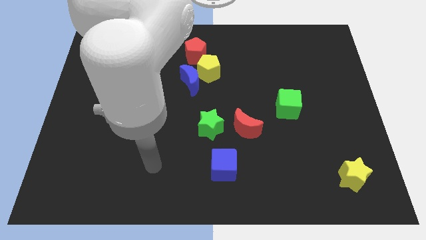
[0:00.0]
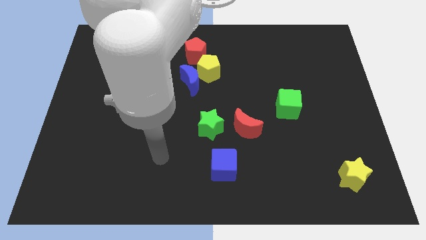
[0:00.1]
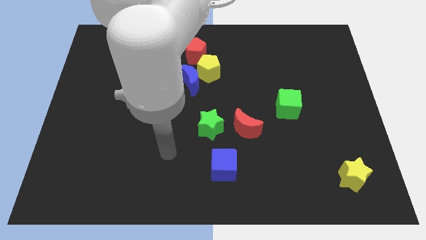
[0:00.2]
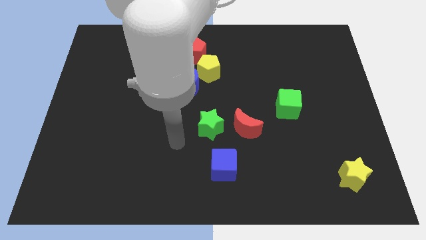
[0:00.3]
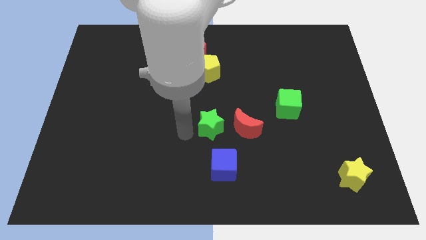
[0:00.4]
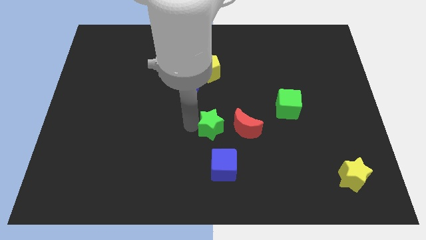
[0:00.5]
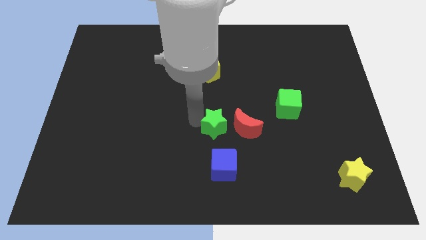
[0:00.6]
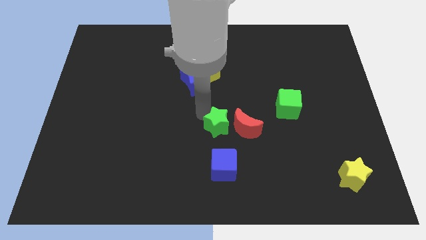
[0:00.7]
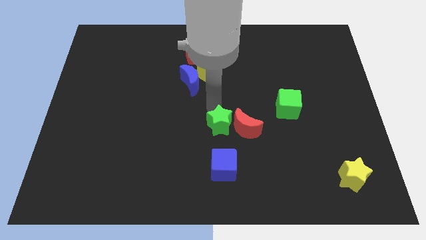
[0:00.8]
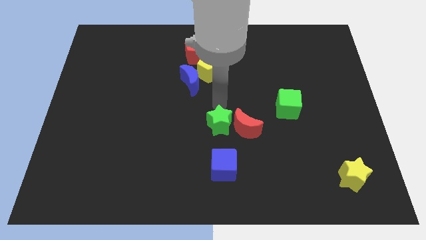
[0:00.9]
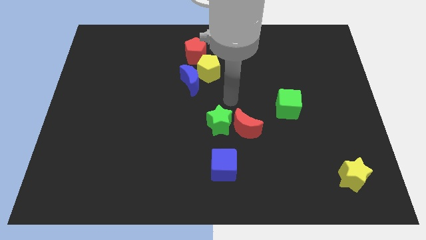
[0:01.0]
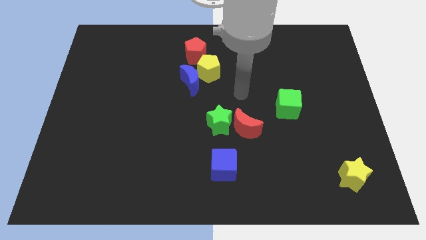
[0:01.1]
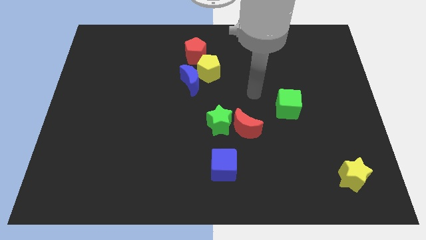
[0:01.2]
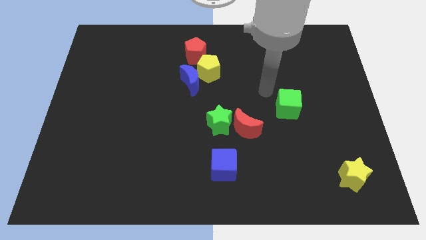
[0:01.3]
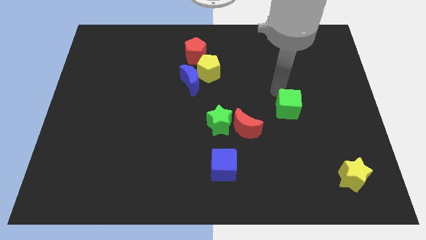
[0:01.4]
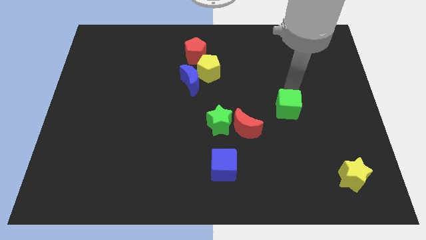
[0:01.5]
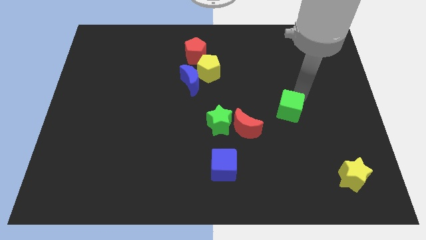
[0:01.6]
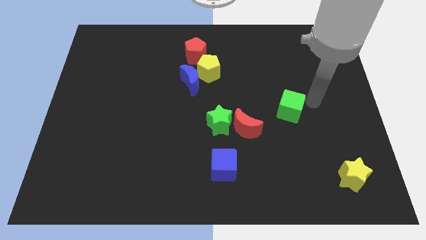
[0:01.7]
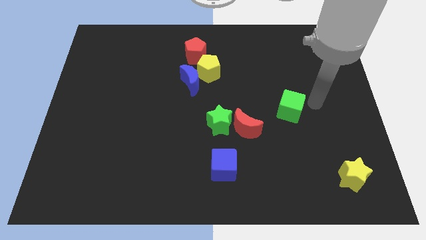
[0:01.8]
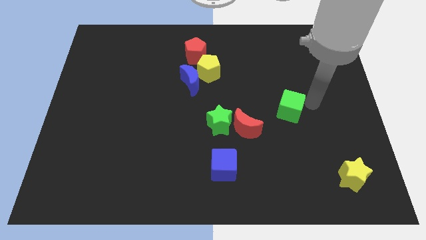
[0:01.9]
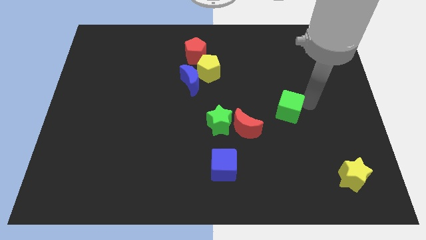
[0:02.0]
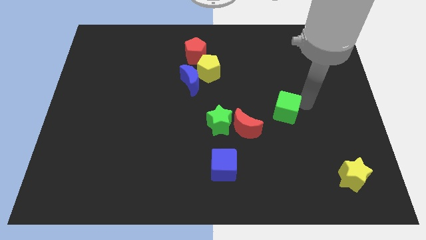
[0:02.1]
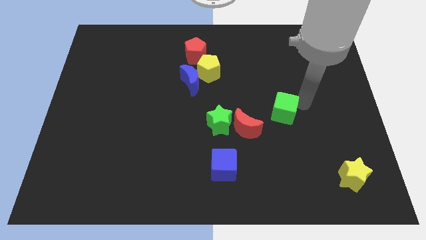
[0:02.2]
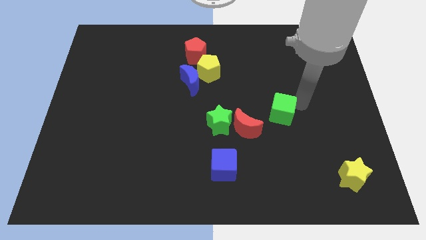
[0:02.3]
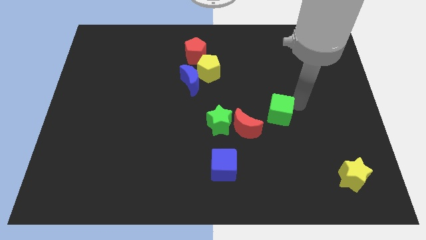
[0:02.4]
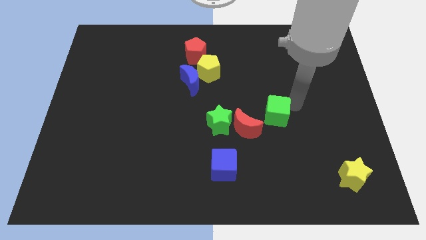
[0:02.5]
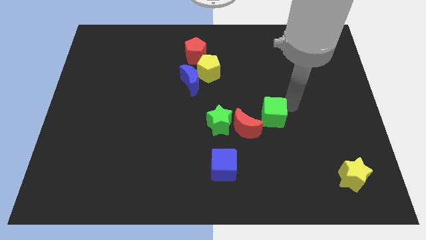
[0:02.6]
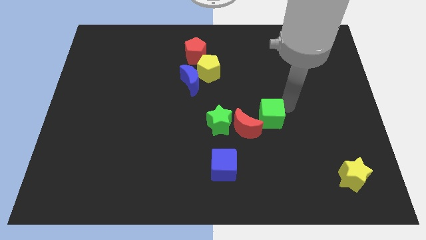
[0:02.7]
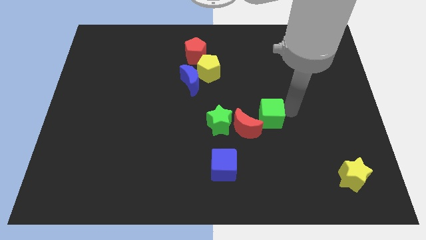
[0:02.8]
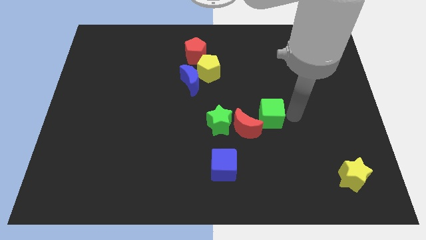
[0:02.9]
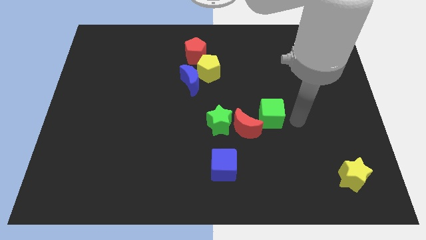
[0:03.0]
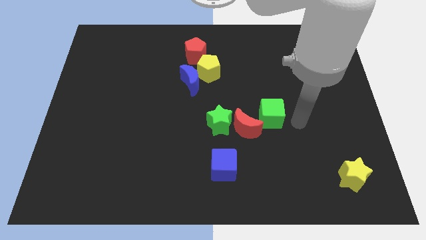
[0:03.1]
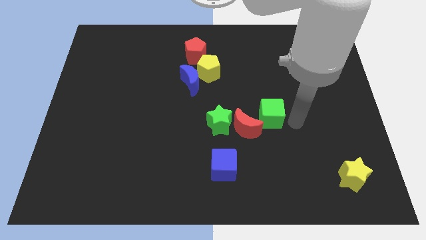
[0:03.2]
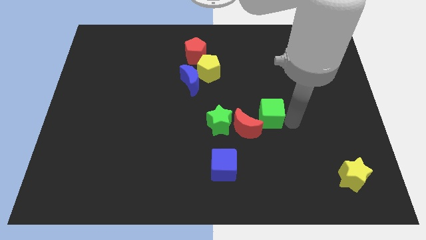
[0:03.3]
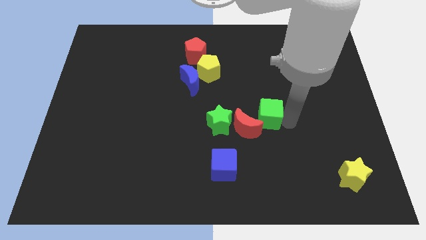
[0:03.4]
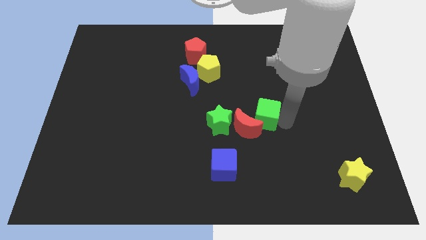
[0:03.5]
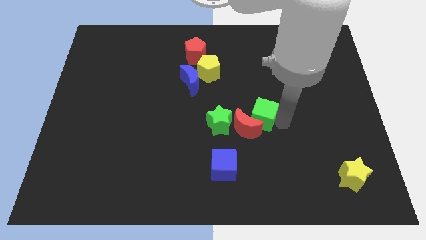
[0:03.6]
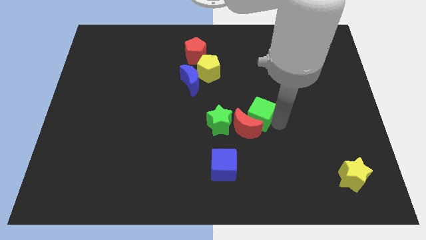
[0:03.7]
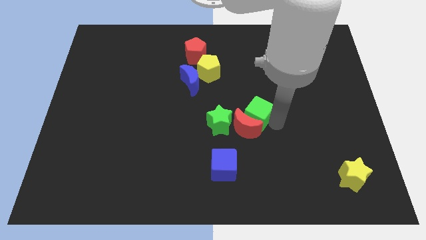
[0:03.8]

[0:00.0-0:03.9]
push the green cube left a bit

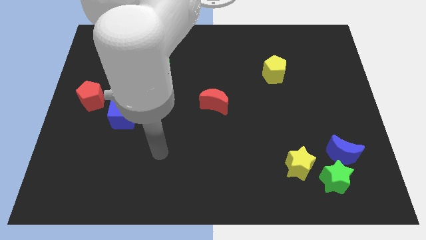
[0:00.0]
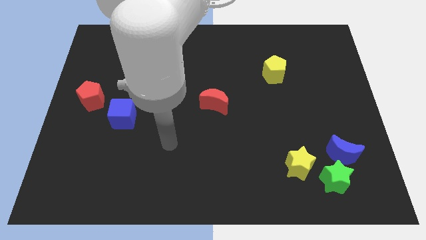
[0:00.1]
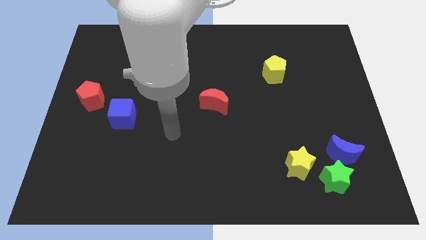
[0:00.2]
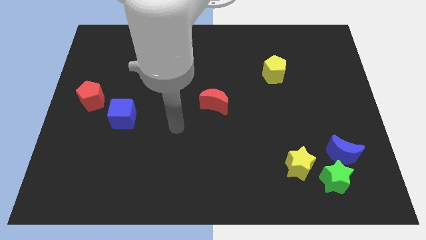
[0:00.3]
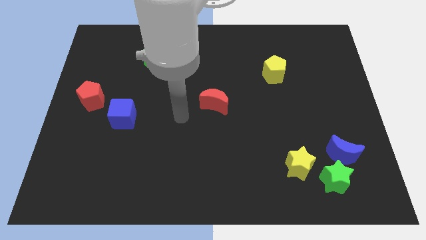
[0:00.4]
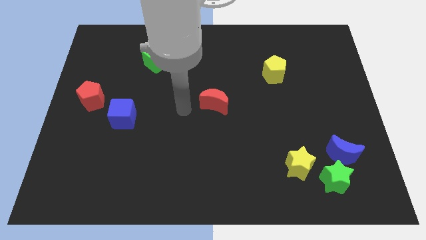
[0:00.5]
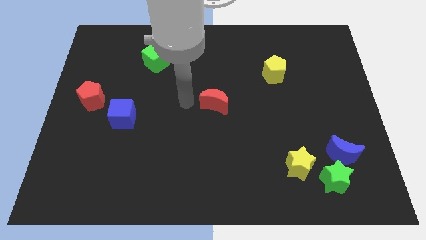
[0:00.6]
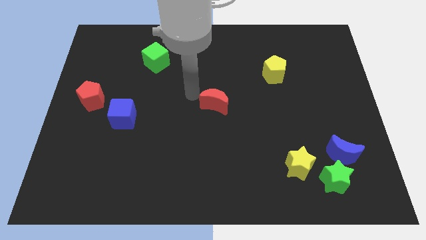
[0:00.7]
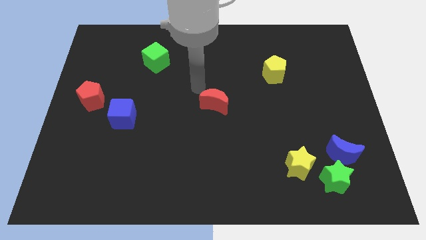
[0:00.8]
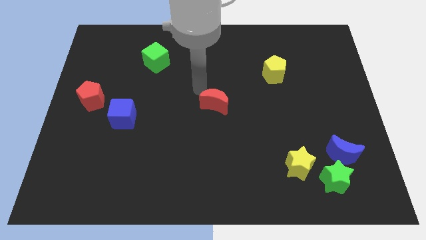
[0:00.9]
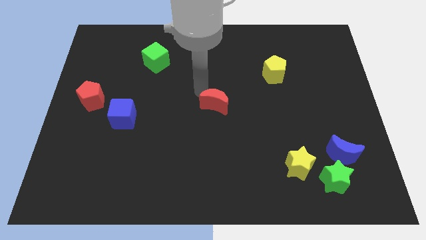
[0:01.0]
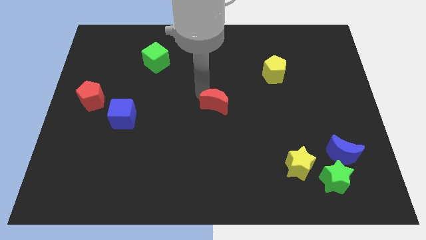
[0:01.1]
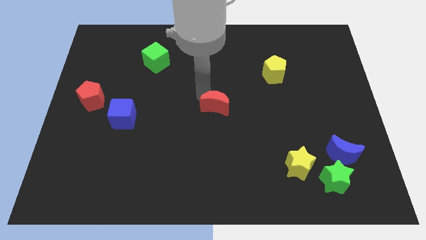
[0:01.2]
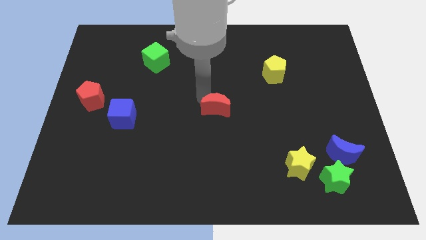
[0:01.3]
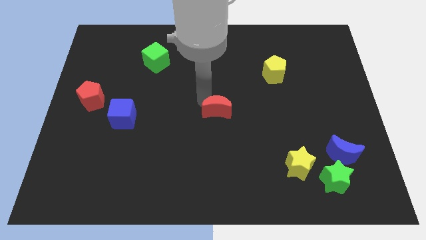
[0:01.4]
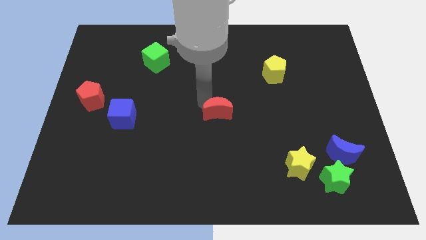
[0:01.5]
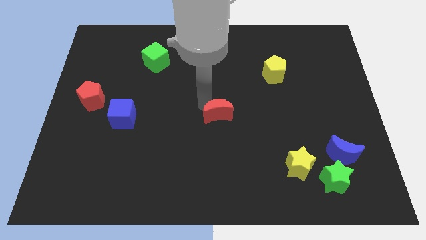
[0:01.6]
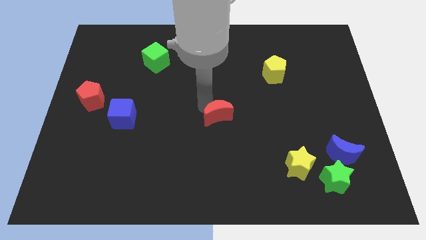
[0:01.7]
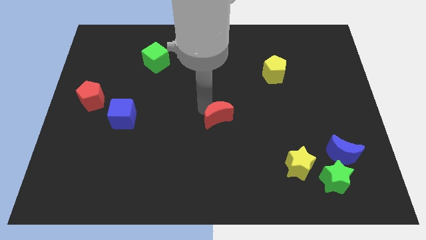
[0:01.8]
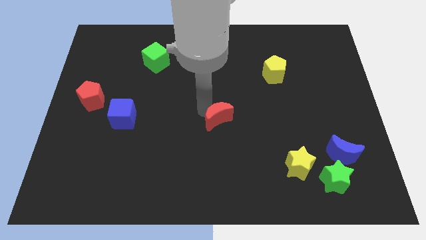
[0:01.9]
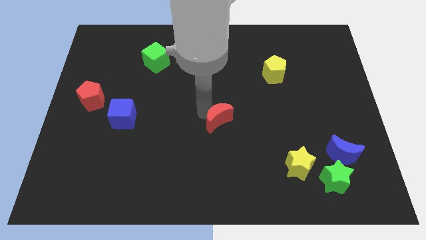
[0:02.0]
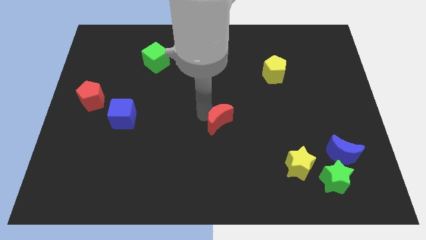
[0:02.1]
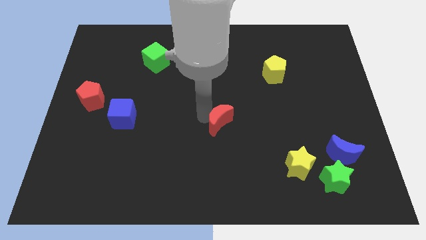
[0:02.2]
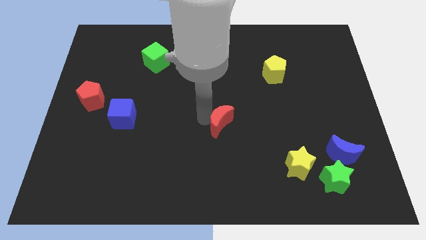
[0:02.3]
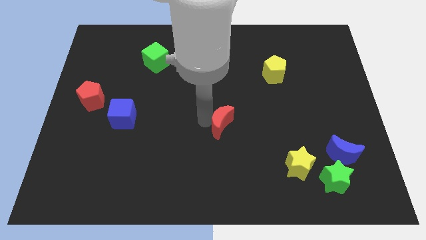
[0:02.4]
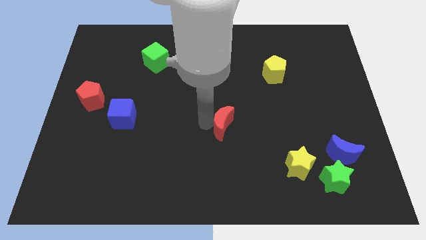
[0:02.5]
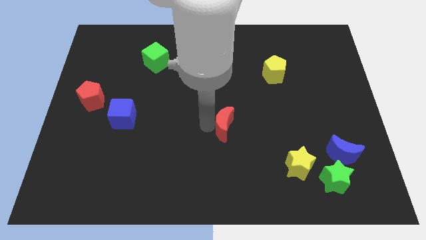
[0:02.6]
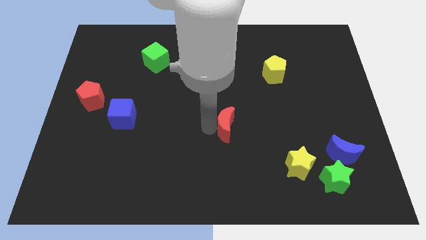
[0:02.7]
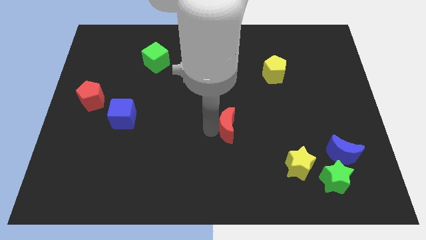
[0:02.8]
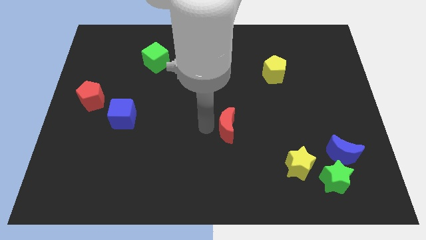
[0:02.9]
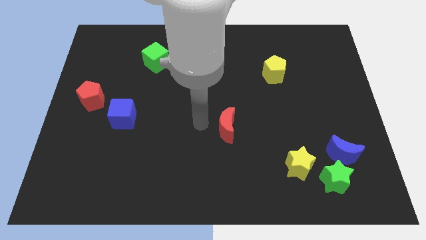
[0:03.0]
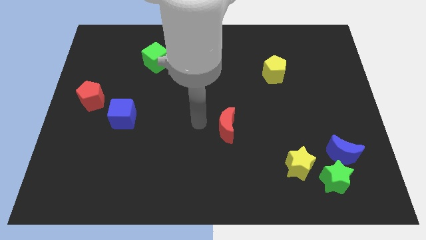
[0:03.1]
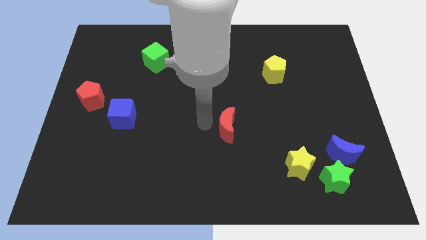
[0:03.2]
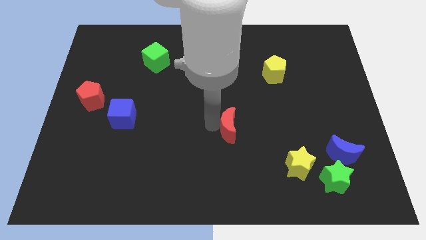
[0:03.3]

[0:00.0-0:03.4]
move the red moon somewhat down and right diagonally

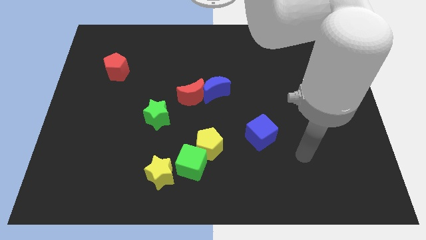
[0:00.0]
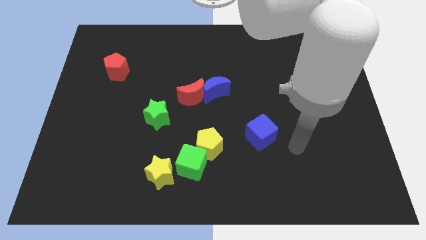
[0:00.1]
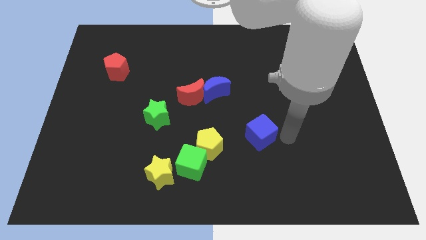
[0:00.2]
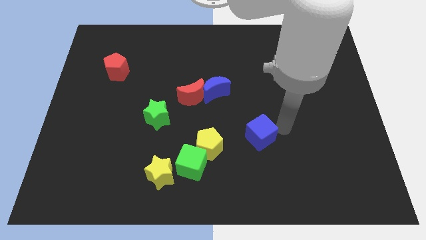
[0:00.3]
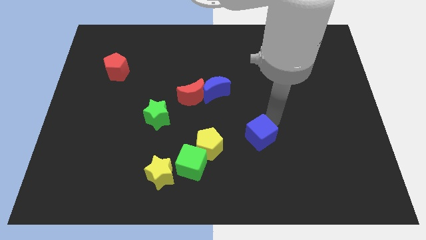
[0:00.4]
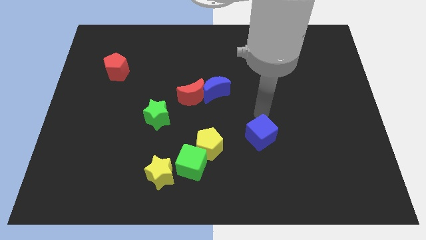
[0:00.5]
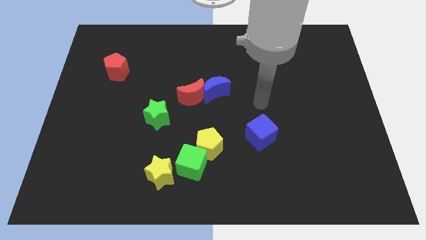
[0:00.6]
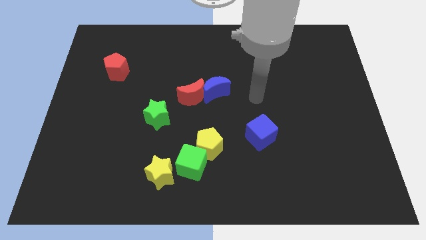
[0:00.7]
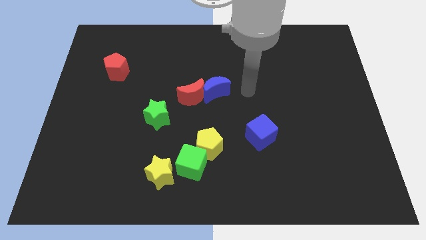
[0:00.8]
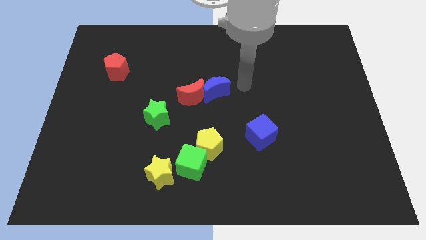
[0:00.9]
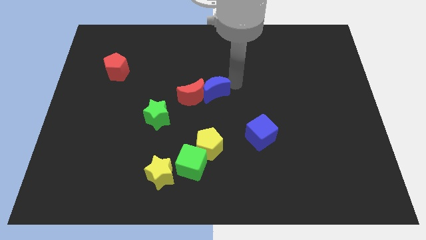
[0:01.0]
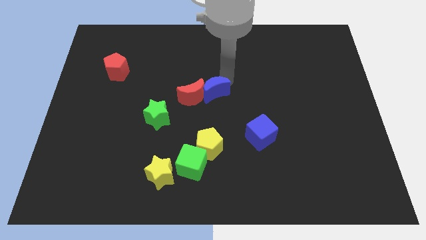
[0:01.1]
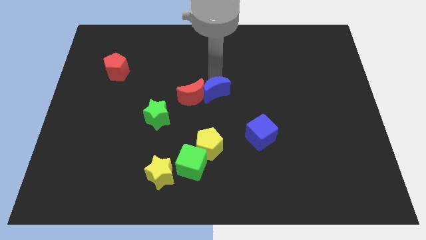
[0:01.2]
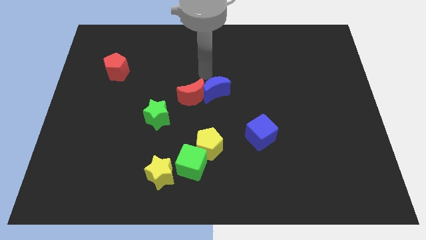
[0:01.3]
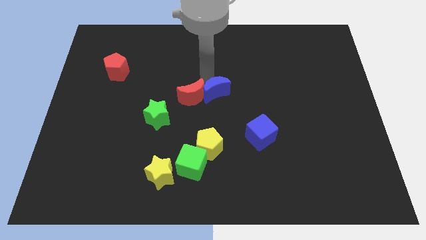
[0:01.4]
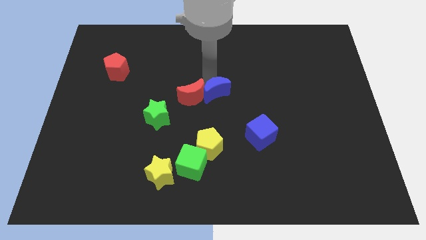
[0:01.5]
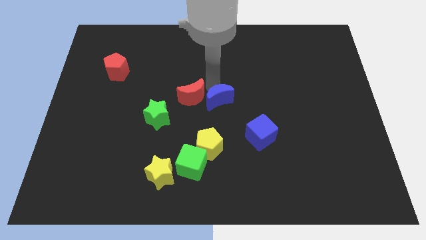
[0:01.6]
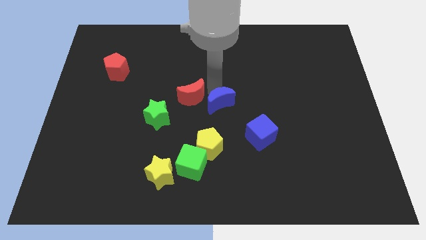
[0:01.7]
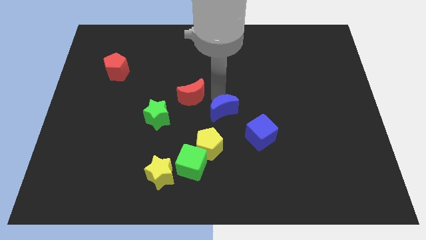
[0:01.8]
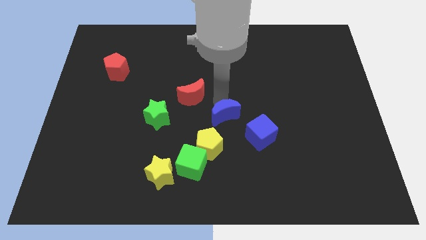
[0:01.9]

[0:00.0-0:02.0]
move the blue moon slightly downwards
